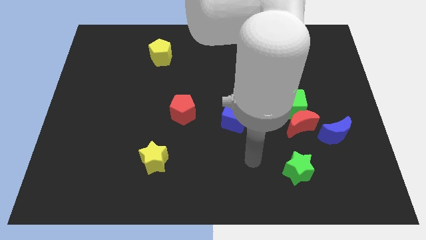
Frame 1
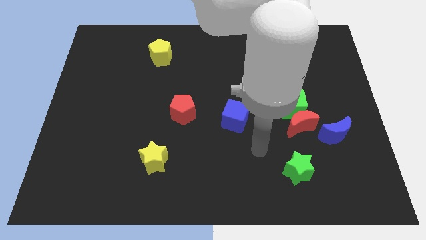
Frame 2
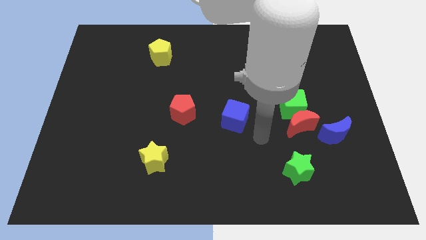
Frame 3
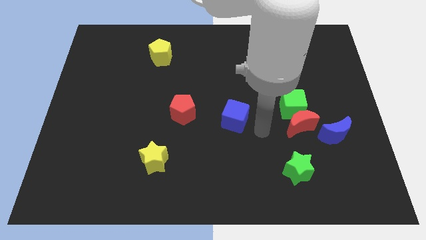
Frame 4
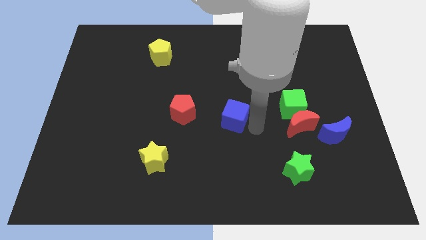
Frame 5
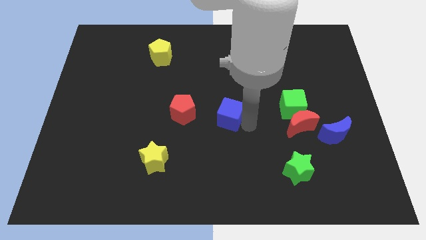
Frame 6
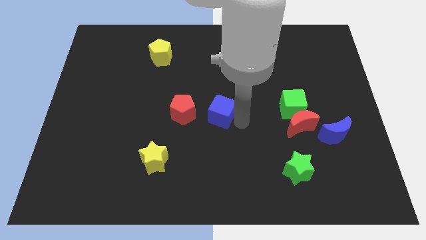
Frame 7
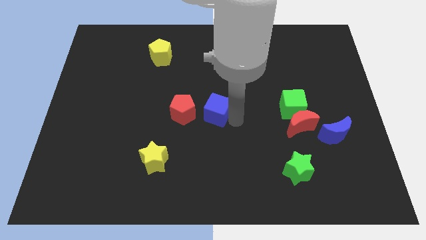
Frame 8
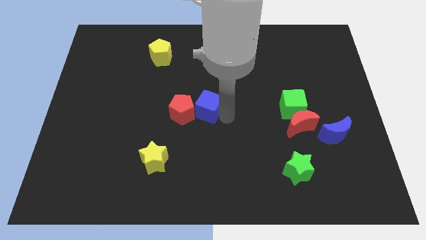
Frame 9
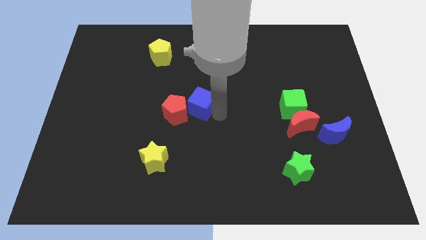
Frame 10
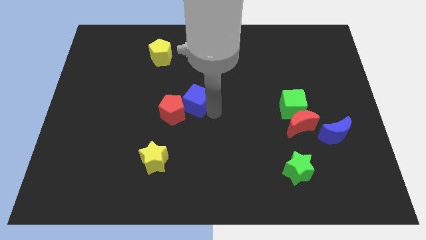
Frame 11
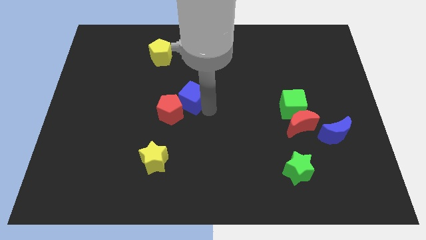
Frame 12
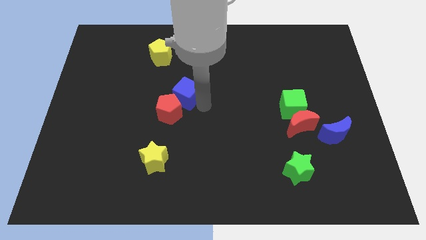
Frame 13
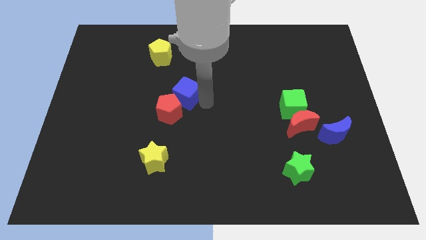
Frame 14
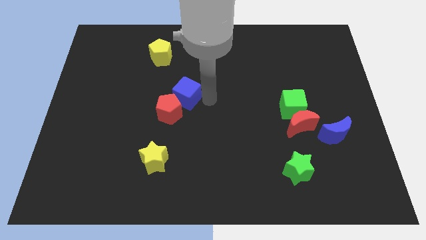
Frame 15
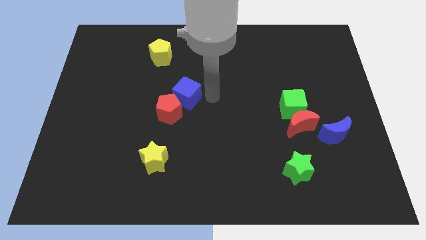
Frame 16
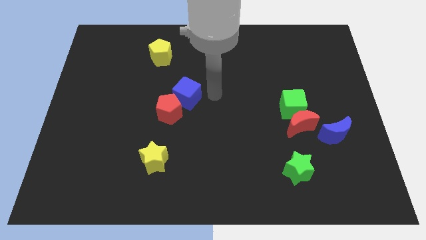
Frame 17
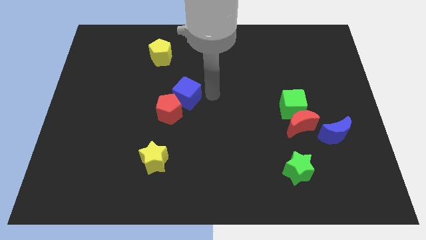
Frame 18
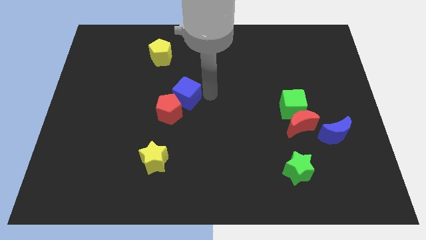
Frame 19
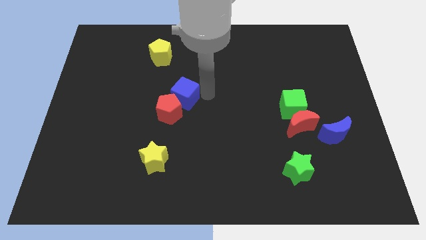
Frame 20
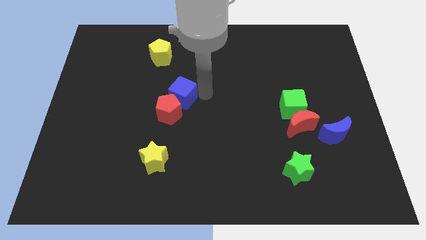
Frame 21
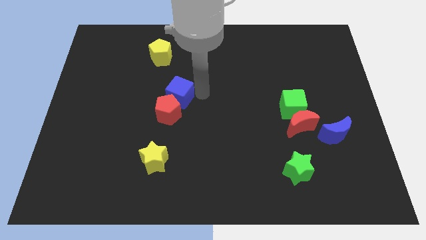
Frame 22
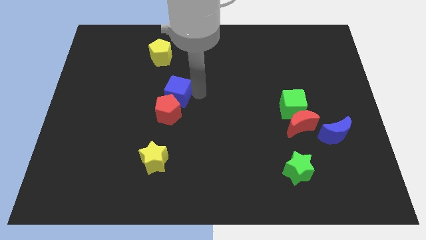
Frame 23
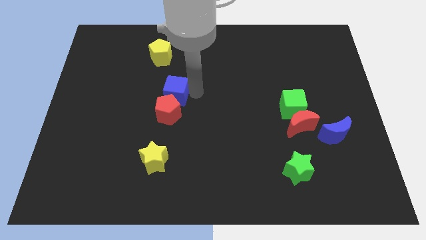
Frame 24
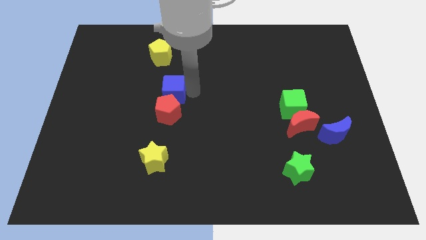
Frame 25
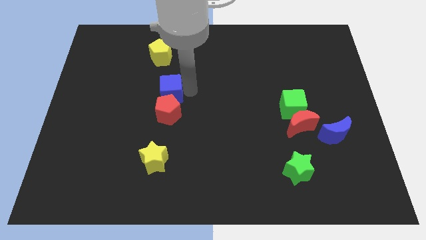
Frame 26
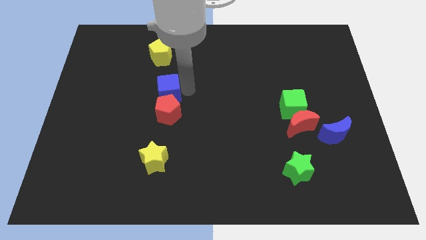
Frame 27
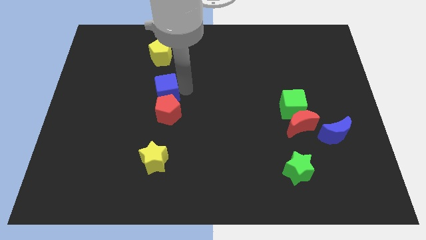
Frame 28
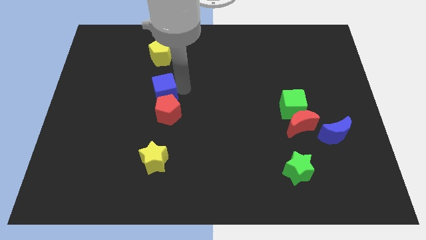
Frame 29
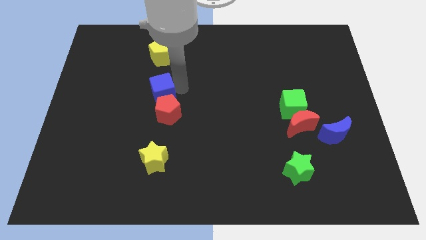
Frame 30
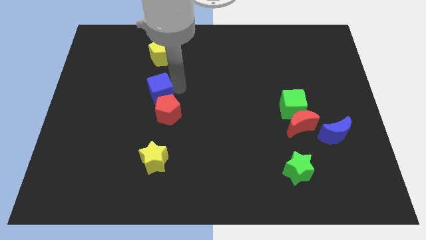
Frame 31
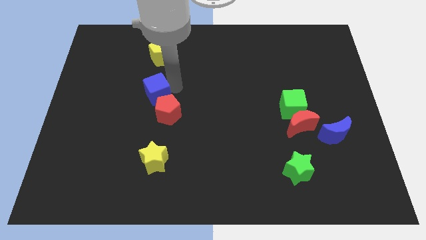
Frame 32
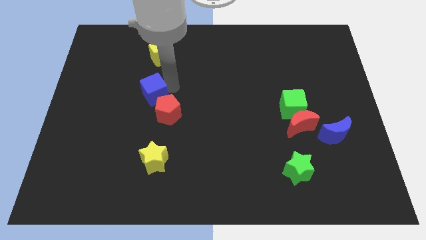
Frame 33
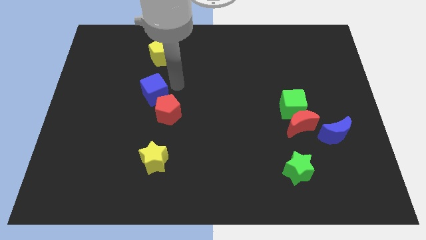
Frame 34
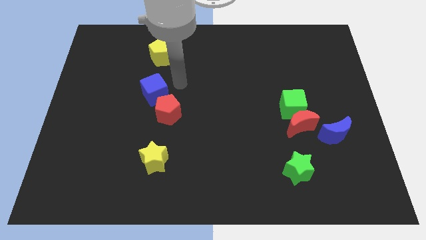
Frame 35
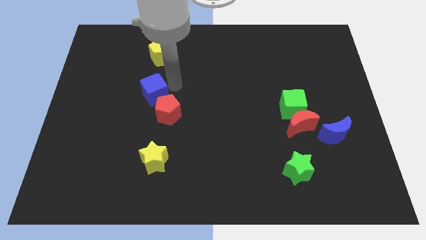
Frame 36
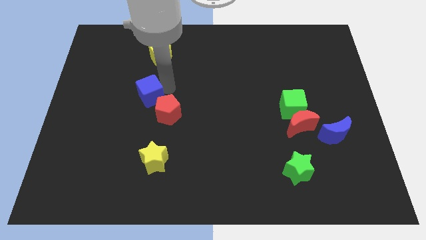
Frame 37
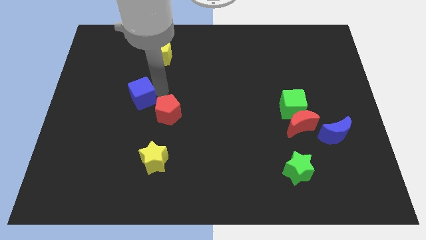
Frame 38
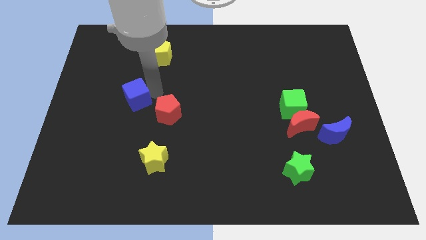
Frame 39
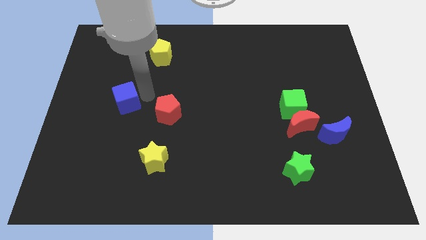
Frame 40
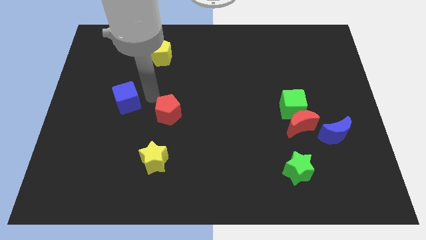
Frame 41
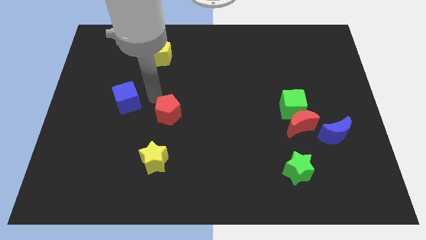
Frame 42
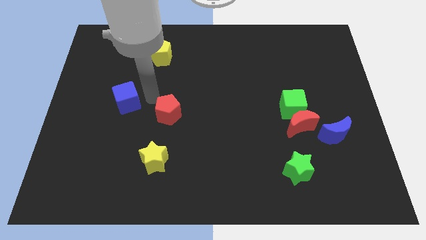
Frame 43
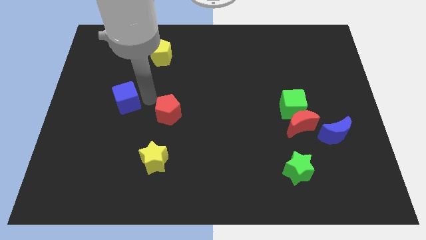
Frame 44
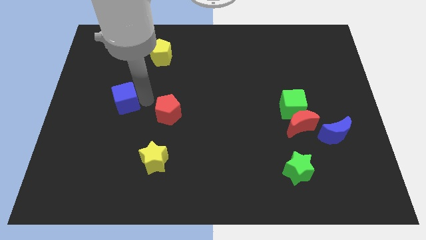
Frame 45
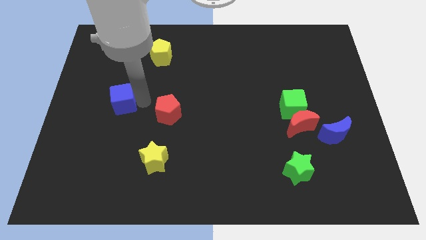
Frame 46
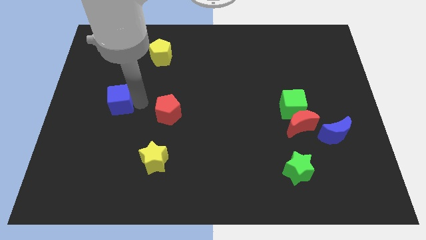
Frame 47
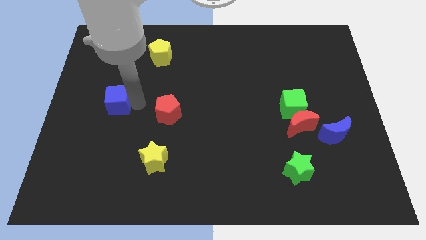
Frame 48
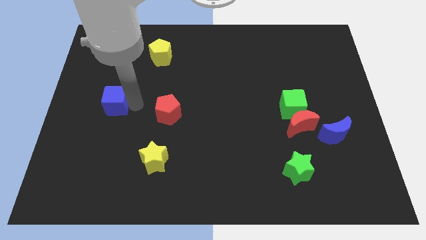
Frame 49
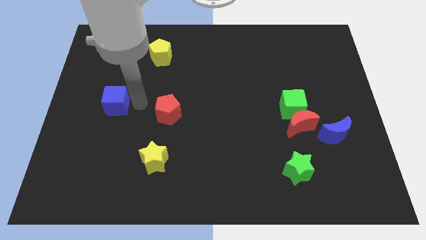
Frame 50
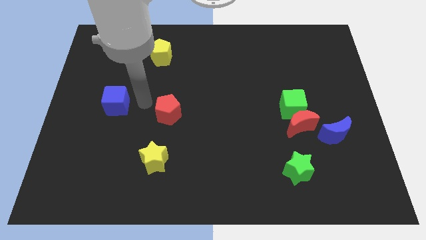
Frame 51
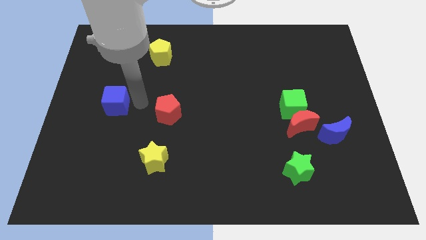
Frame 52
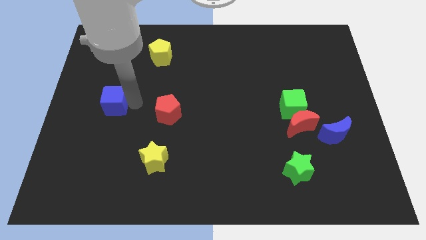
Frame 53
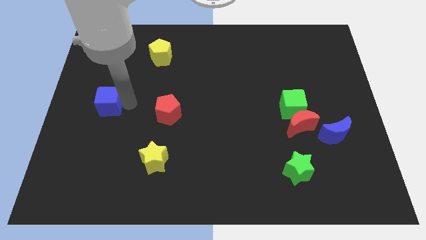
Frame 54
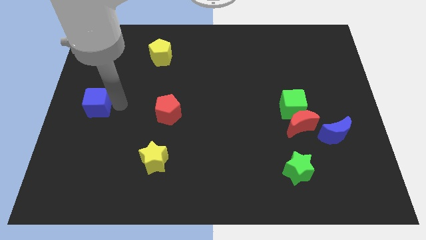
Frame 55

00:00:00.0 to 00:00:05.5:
push the blue cube to the left side of the board
